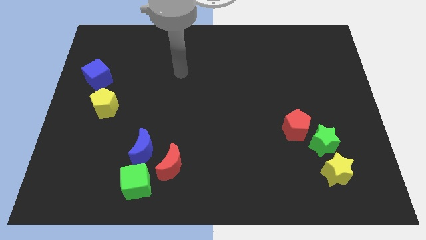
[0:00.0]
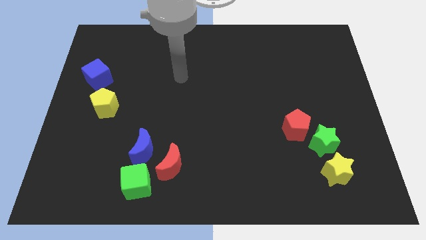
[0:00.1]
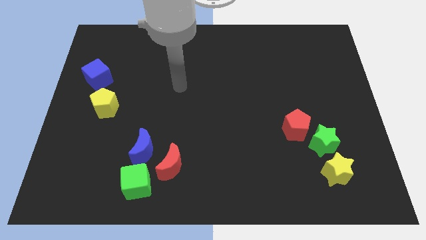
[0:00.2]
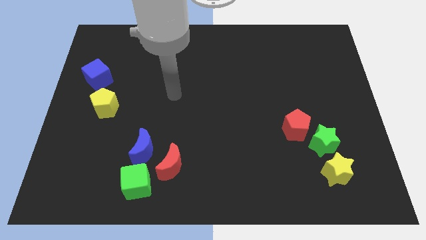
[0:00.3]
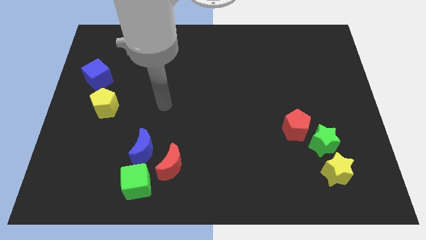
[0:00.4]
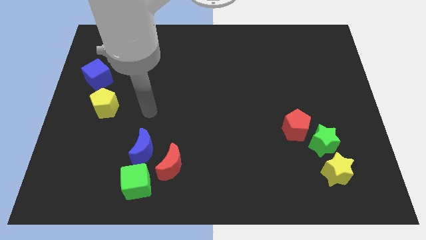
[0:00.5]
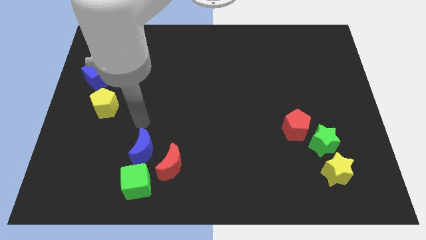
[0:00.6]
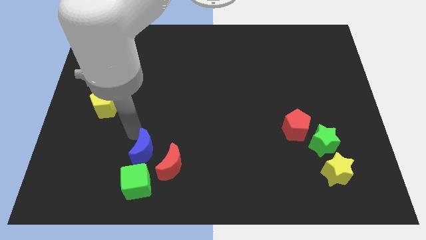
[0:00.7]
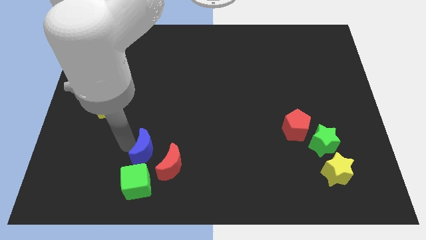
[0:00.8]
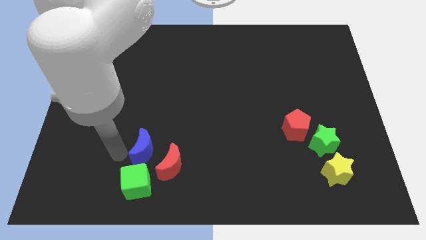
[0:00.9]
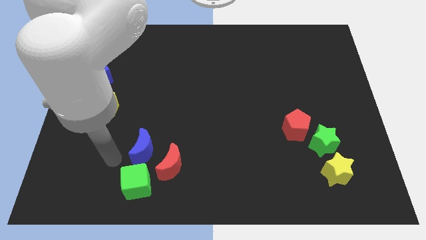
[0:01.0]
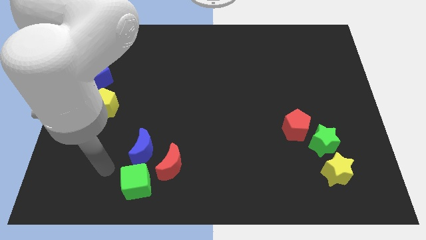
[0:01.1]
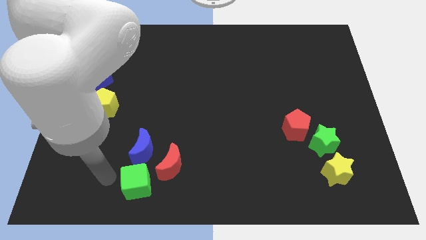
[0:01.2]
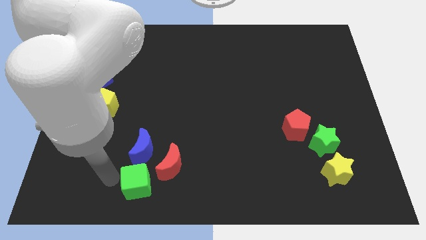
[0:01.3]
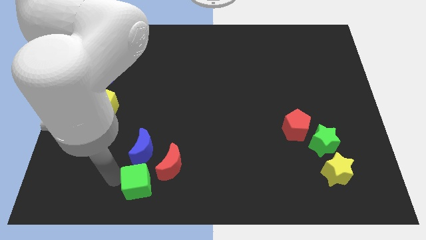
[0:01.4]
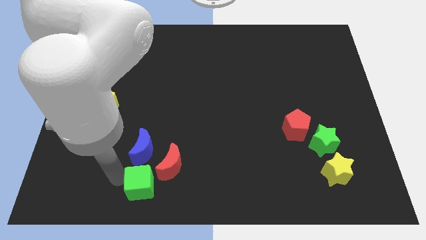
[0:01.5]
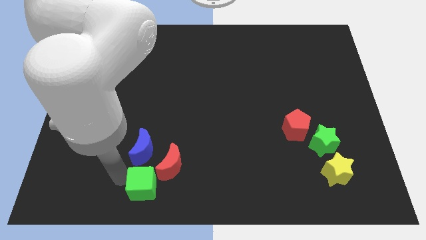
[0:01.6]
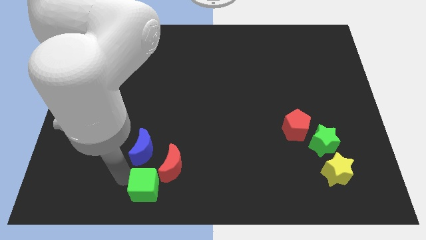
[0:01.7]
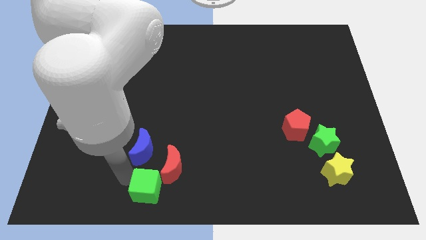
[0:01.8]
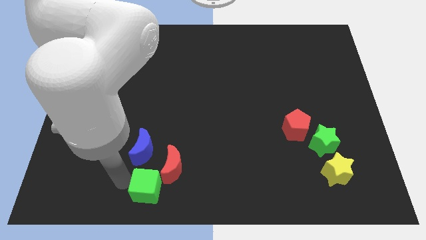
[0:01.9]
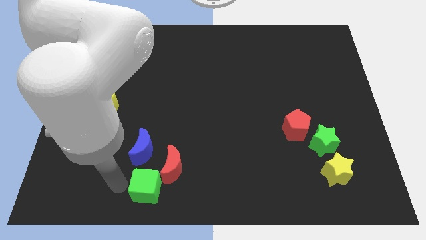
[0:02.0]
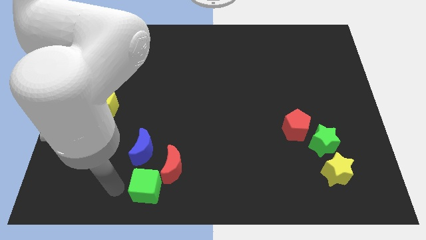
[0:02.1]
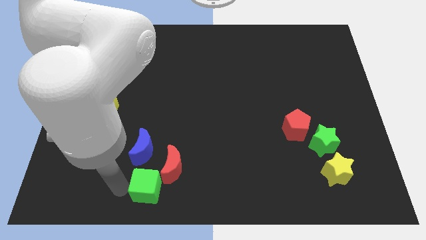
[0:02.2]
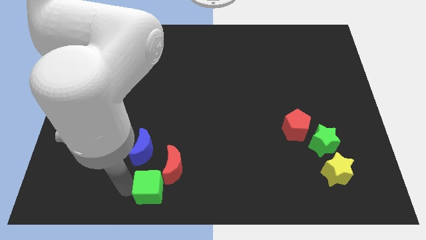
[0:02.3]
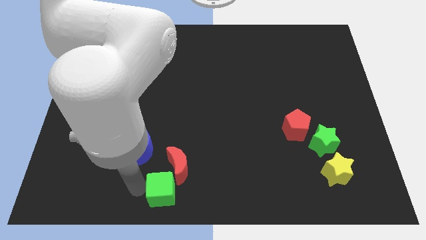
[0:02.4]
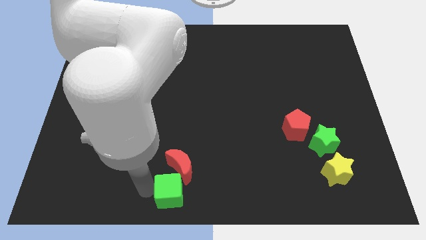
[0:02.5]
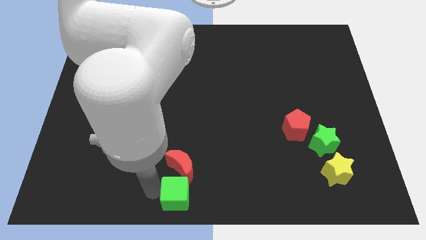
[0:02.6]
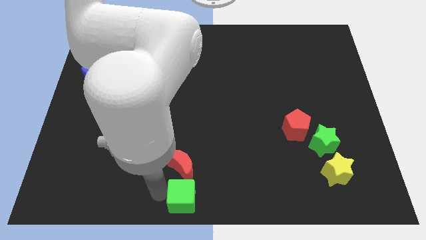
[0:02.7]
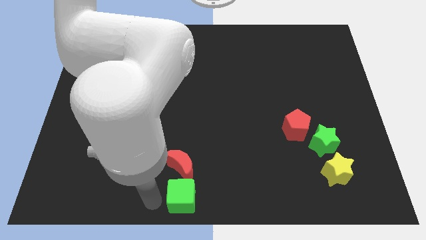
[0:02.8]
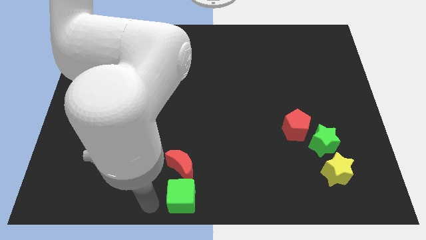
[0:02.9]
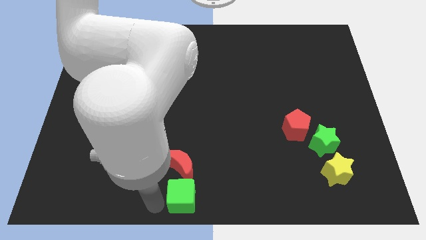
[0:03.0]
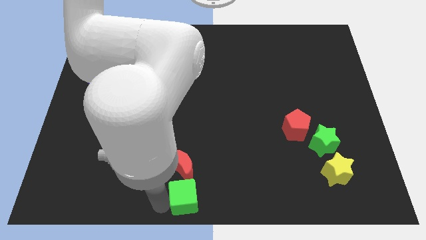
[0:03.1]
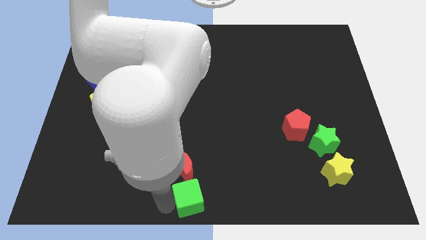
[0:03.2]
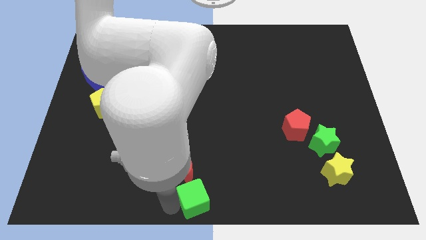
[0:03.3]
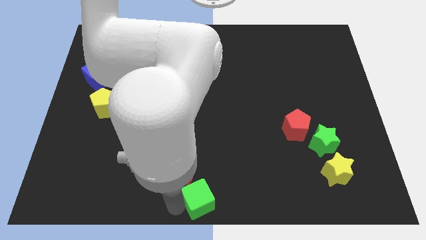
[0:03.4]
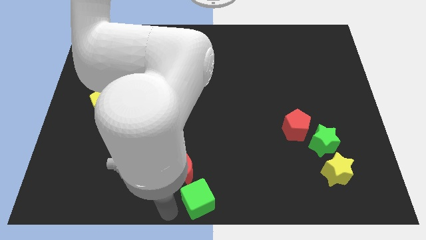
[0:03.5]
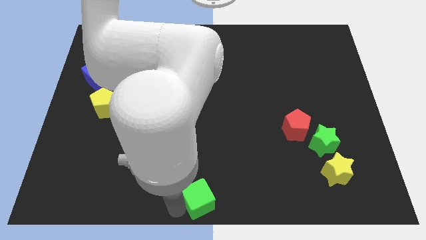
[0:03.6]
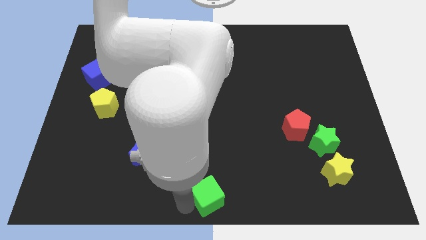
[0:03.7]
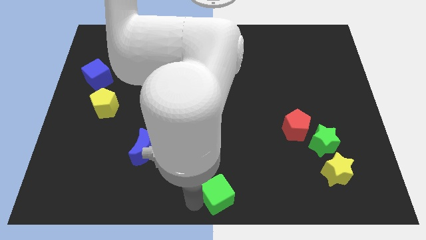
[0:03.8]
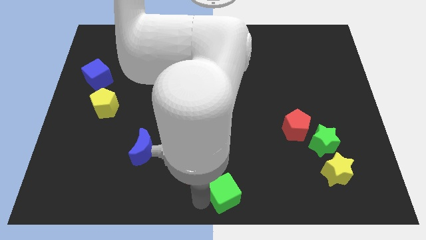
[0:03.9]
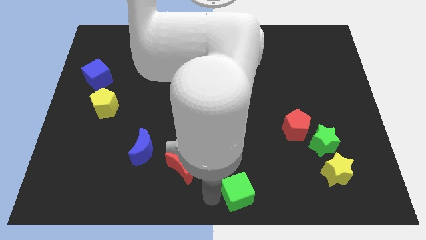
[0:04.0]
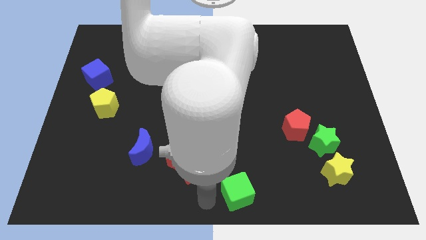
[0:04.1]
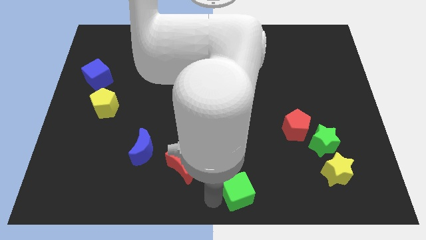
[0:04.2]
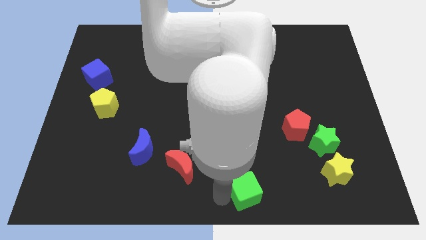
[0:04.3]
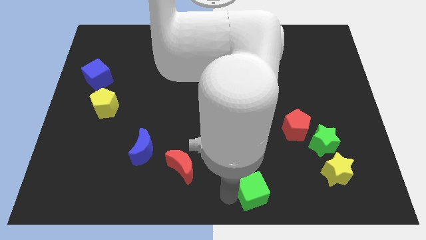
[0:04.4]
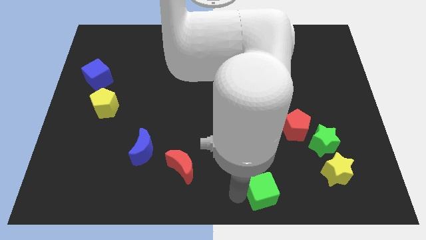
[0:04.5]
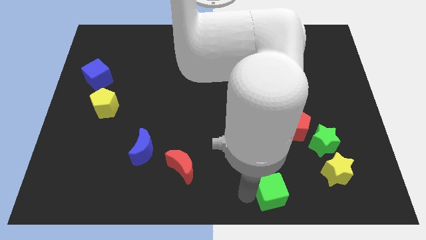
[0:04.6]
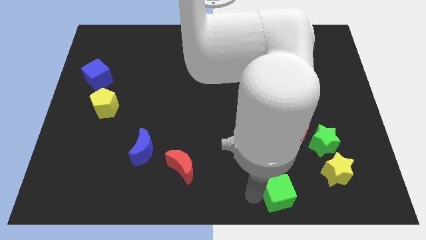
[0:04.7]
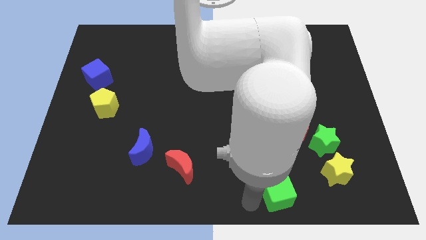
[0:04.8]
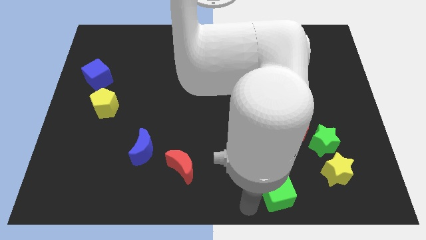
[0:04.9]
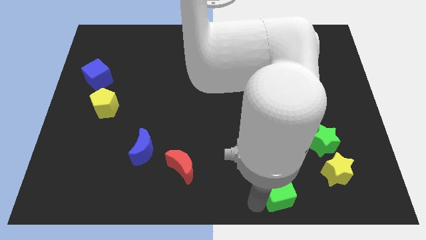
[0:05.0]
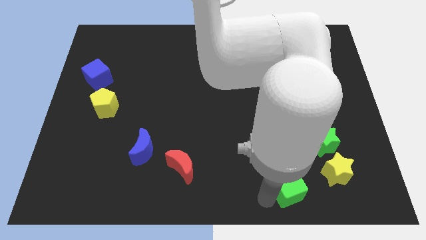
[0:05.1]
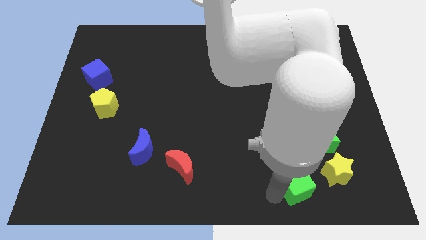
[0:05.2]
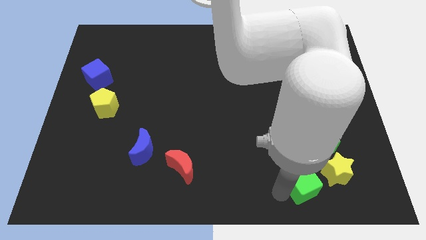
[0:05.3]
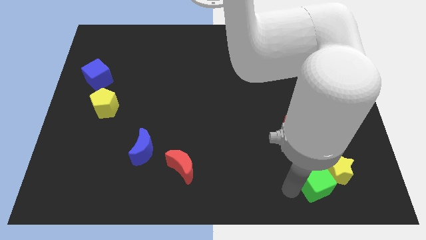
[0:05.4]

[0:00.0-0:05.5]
push the green cube next to the yellow star

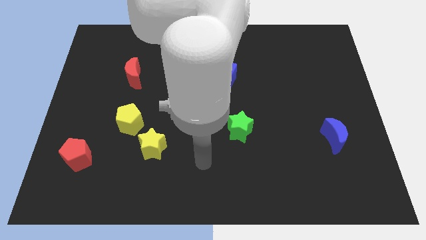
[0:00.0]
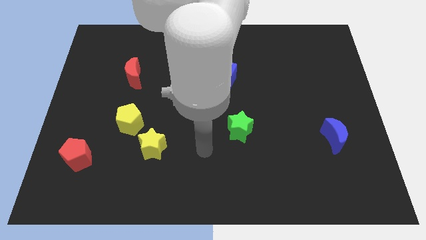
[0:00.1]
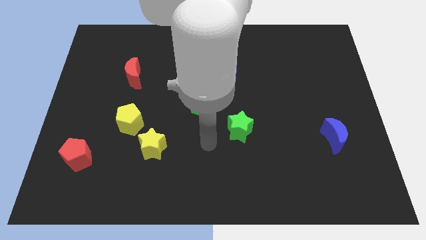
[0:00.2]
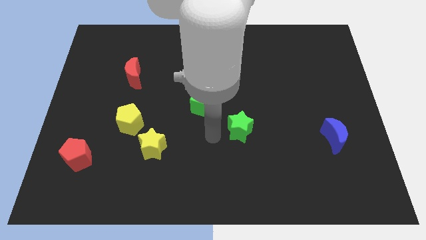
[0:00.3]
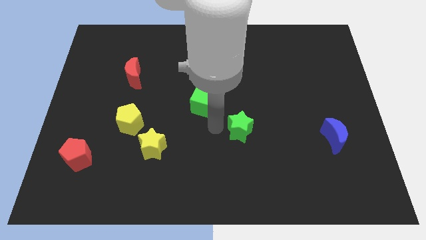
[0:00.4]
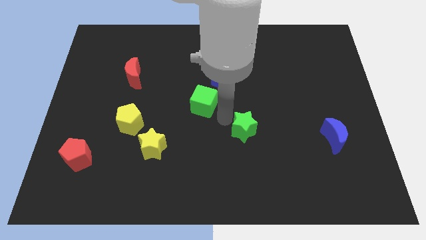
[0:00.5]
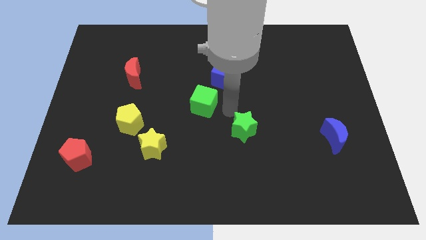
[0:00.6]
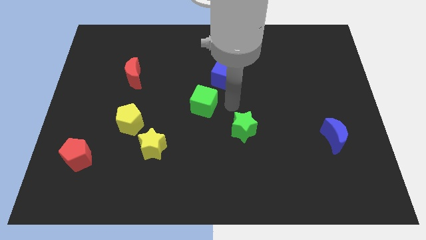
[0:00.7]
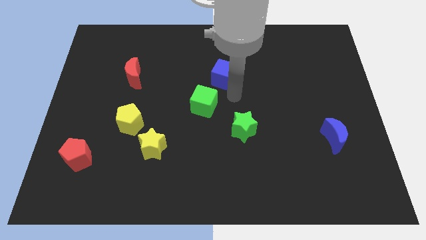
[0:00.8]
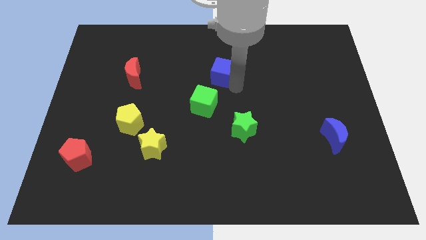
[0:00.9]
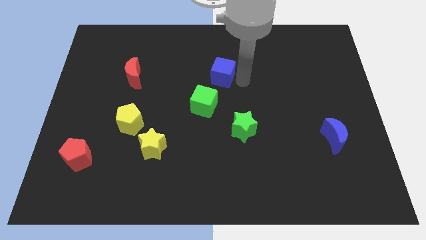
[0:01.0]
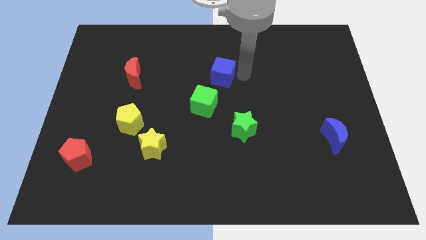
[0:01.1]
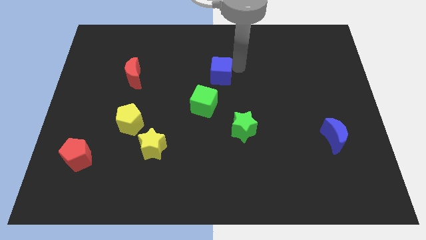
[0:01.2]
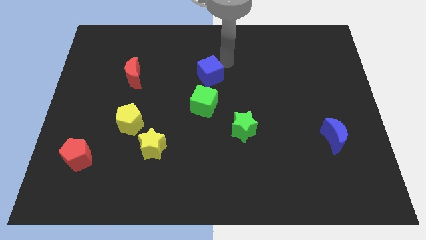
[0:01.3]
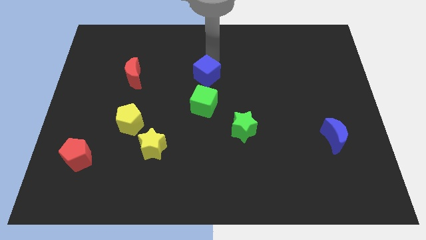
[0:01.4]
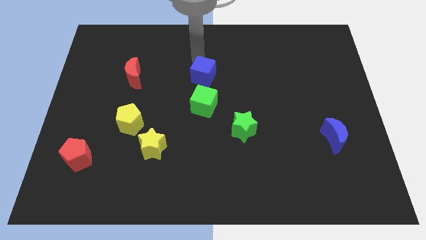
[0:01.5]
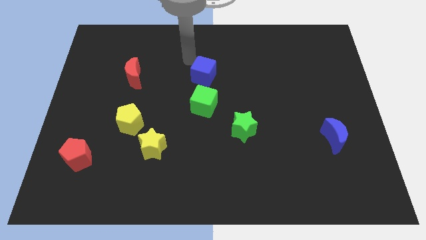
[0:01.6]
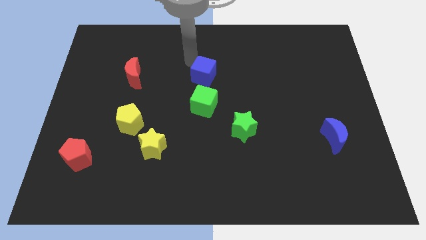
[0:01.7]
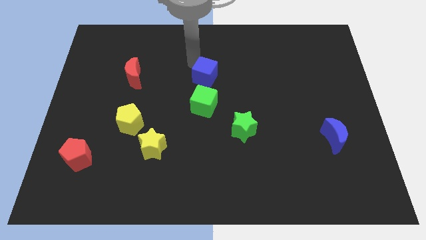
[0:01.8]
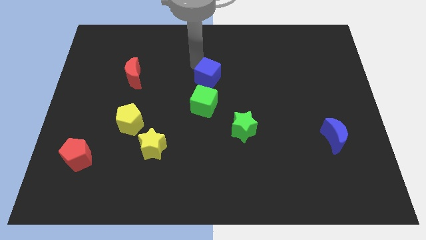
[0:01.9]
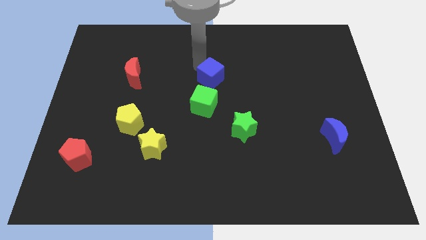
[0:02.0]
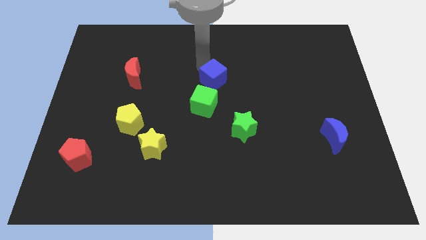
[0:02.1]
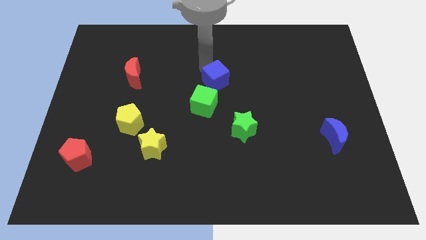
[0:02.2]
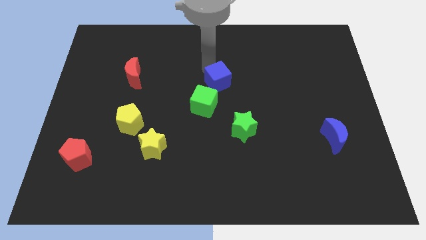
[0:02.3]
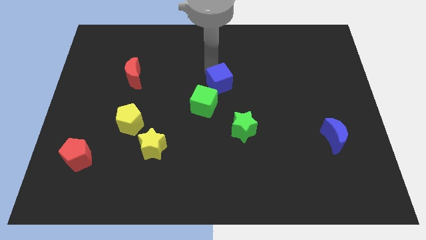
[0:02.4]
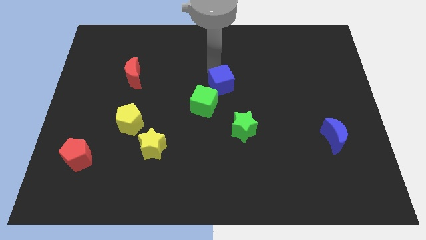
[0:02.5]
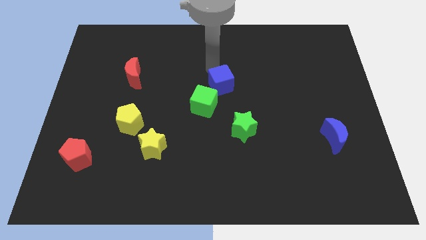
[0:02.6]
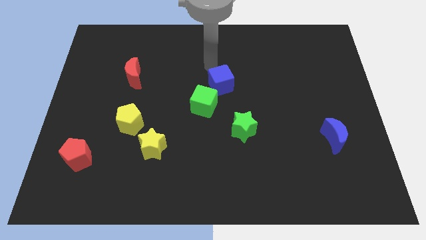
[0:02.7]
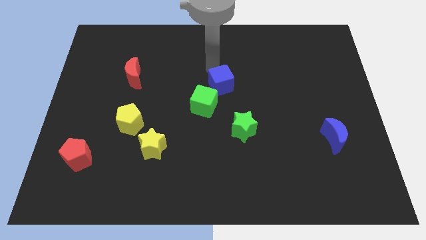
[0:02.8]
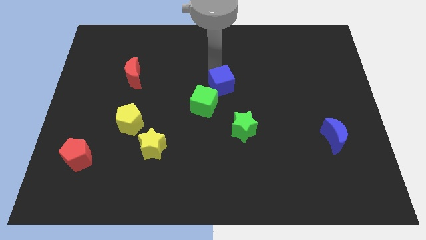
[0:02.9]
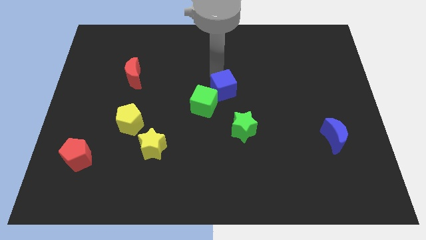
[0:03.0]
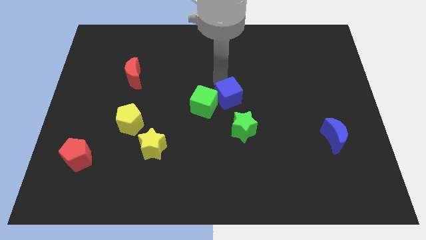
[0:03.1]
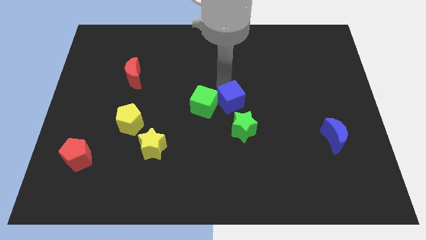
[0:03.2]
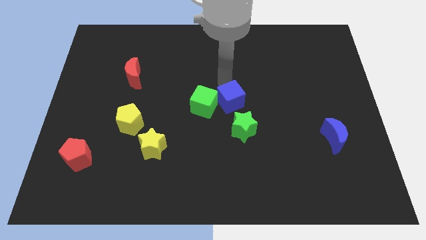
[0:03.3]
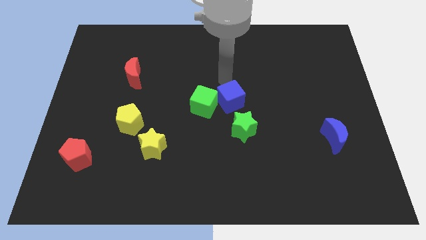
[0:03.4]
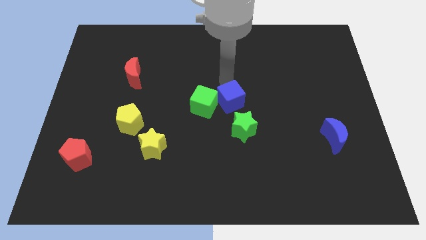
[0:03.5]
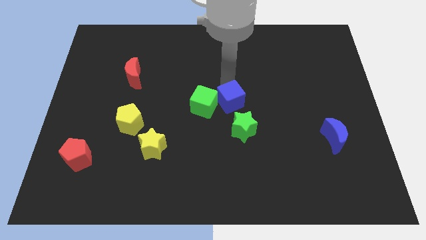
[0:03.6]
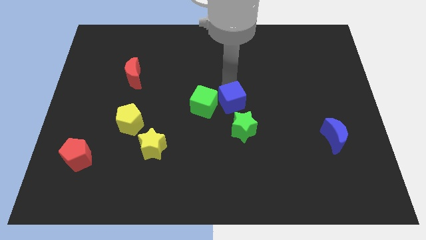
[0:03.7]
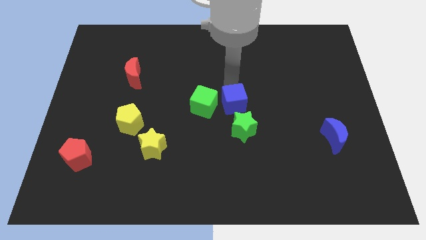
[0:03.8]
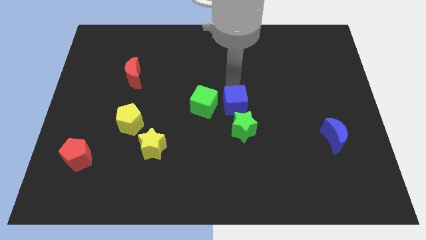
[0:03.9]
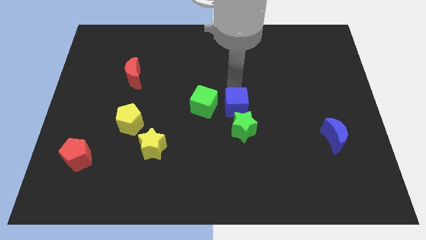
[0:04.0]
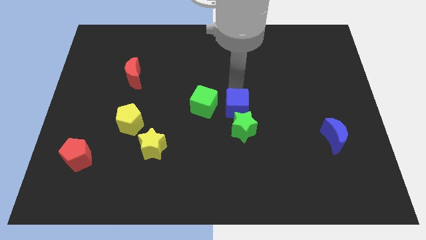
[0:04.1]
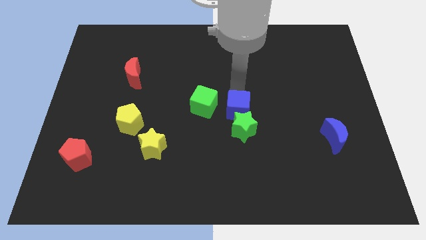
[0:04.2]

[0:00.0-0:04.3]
put the blue cube towards the green star
